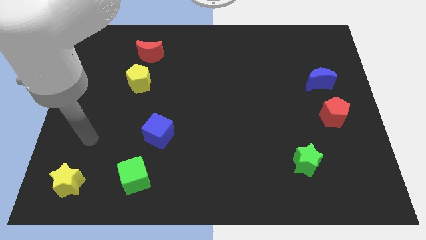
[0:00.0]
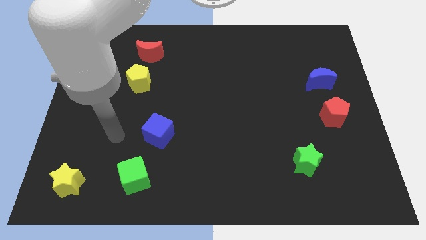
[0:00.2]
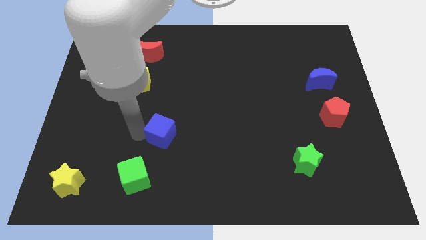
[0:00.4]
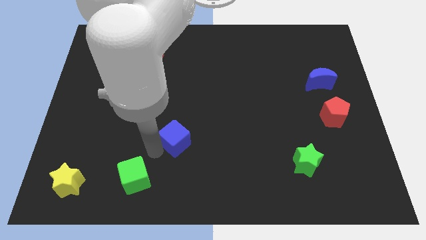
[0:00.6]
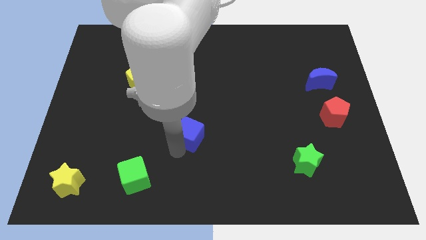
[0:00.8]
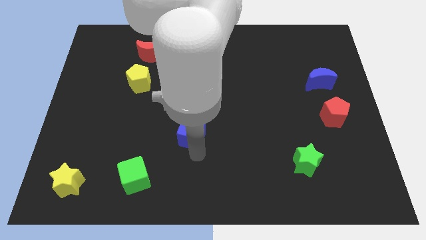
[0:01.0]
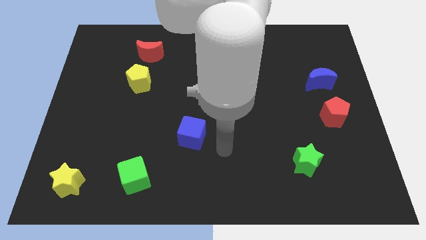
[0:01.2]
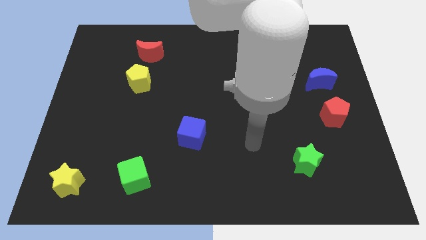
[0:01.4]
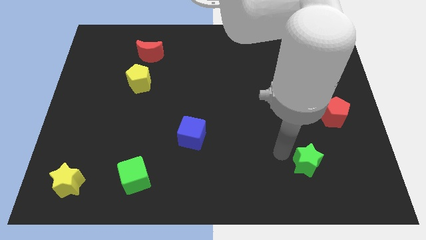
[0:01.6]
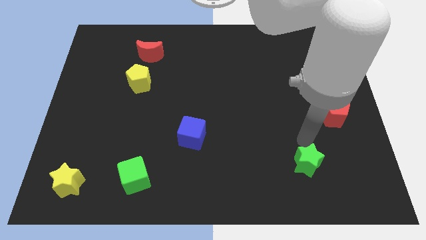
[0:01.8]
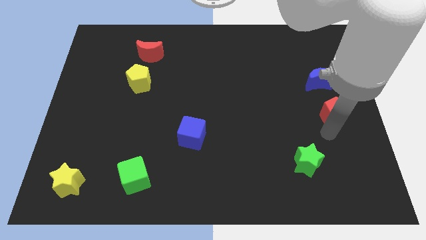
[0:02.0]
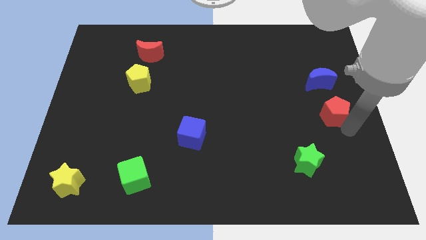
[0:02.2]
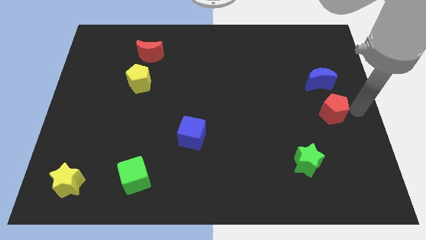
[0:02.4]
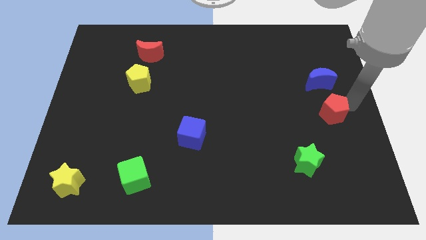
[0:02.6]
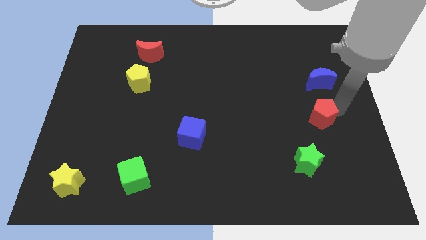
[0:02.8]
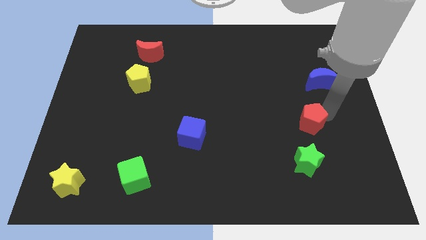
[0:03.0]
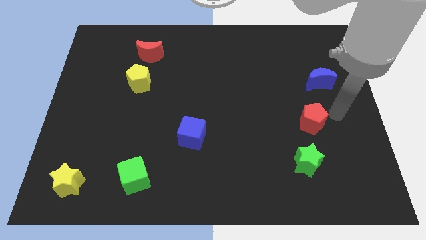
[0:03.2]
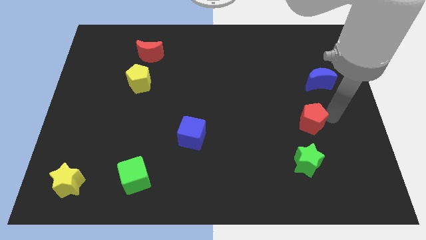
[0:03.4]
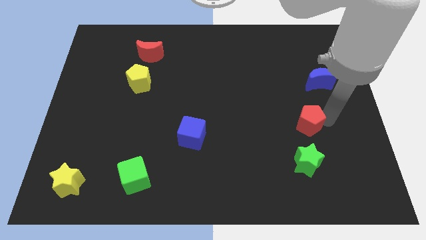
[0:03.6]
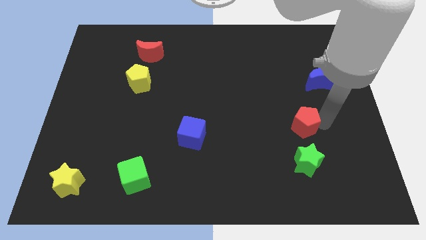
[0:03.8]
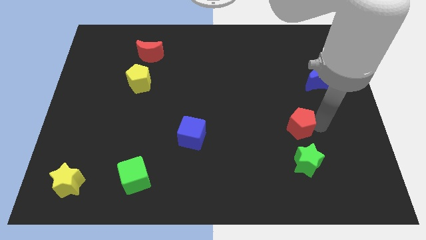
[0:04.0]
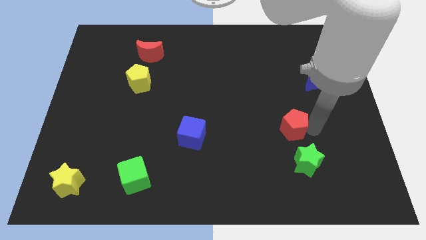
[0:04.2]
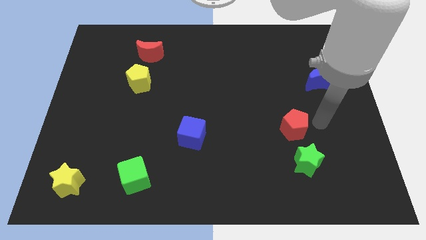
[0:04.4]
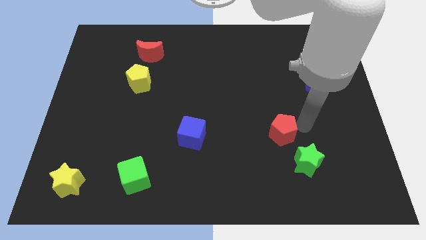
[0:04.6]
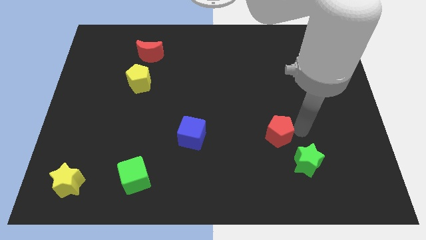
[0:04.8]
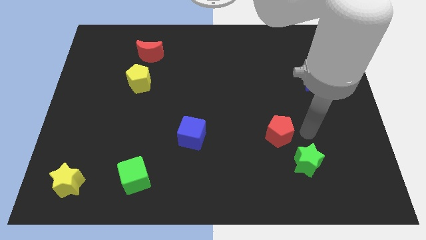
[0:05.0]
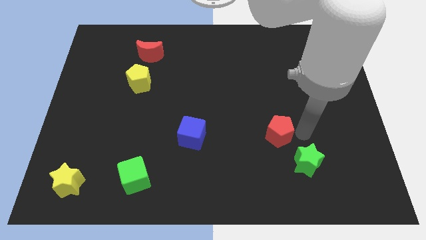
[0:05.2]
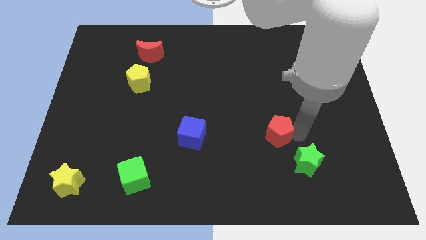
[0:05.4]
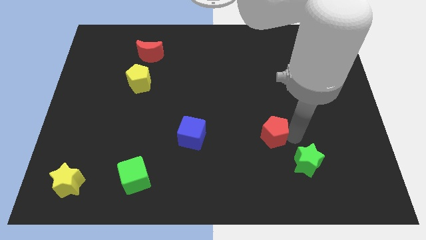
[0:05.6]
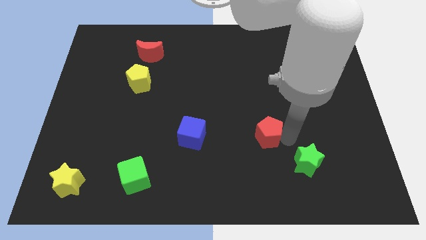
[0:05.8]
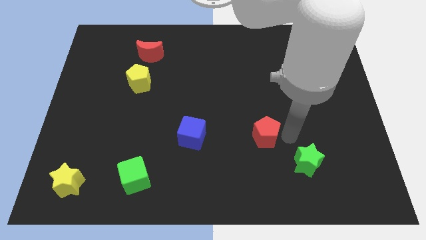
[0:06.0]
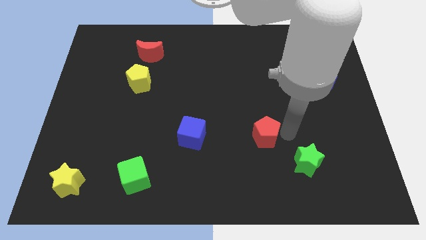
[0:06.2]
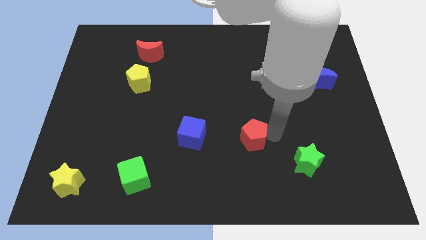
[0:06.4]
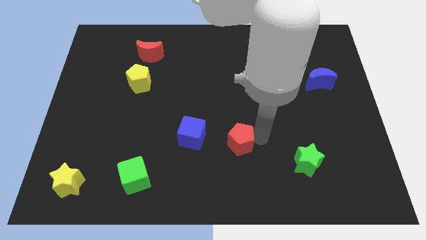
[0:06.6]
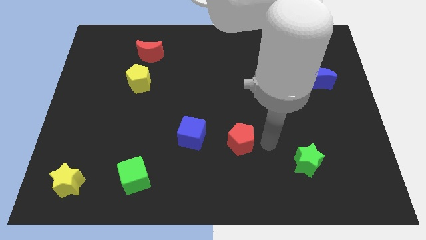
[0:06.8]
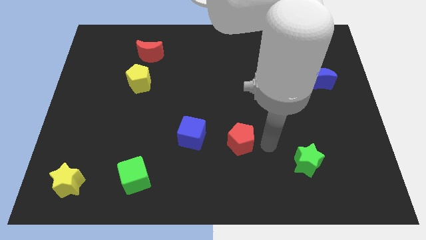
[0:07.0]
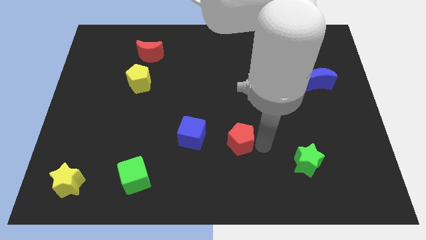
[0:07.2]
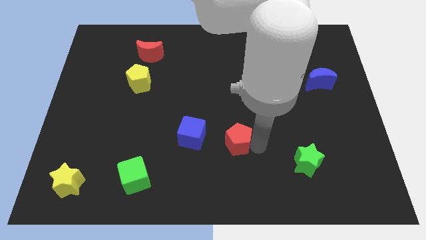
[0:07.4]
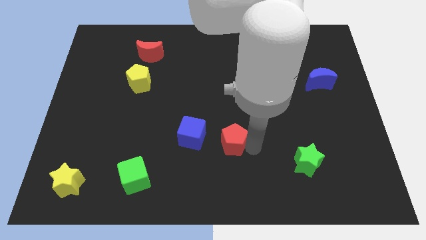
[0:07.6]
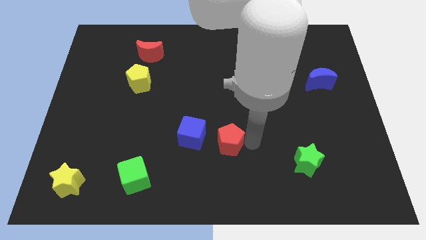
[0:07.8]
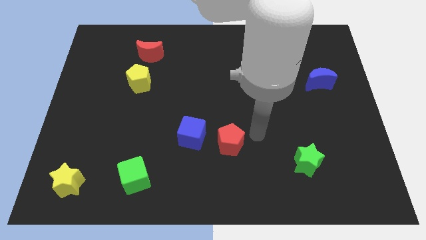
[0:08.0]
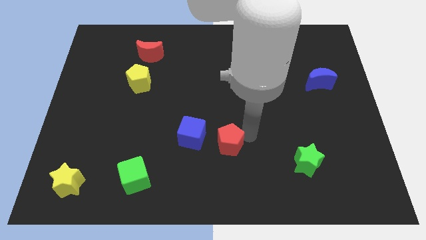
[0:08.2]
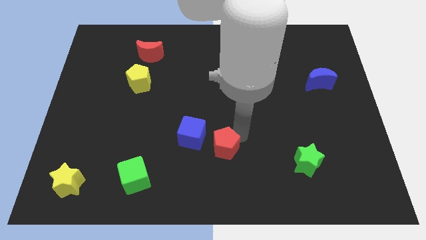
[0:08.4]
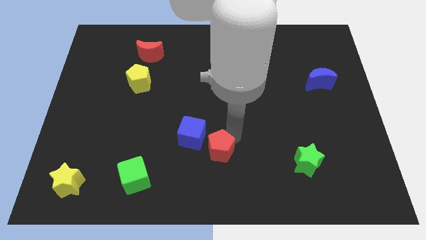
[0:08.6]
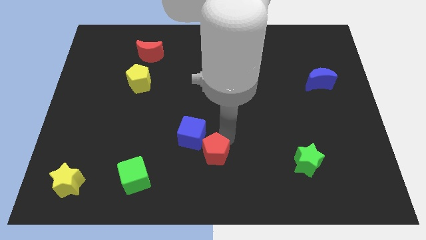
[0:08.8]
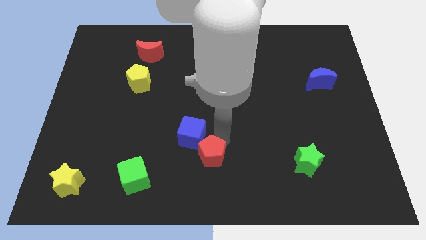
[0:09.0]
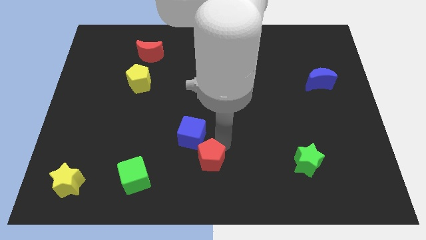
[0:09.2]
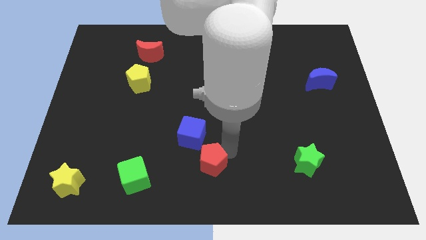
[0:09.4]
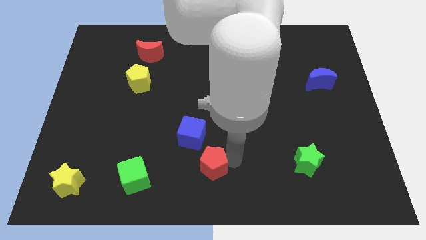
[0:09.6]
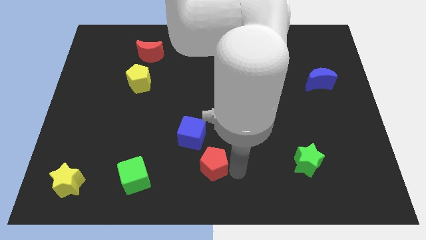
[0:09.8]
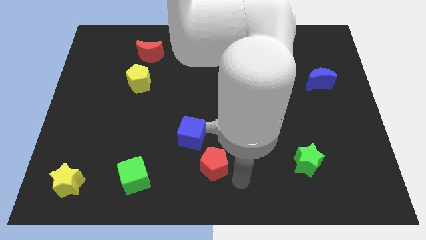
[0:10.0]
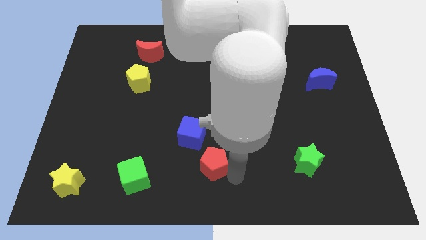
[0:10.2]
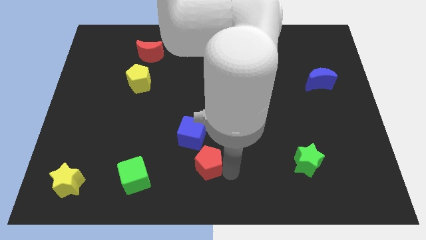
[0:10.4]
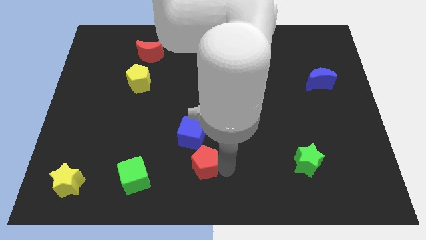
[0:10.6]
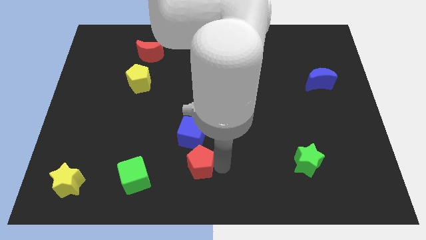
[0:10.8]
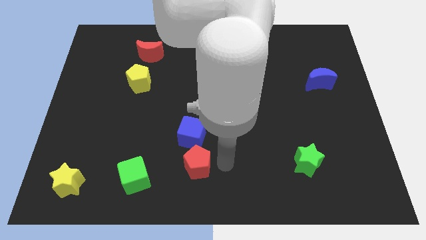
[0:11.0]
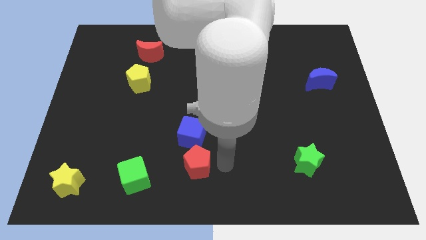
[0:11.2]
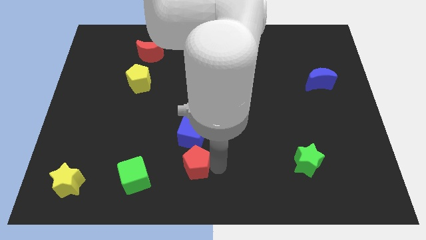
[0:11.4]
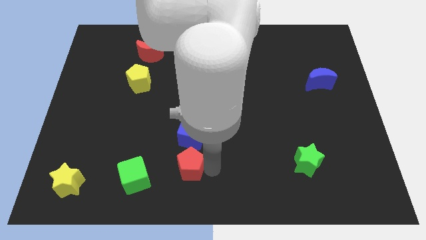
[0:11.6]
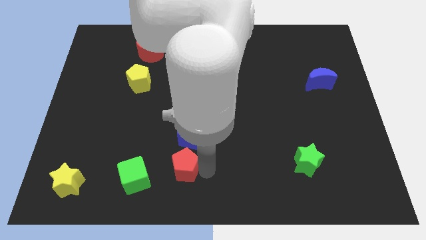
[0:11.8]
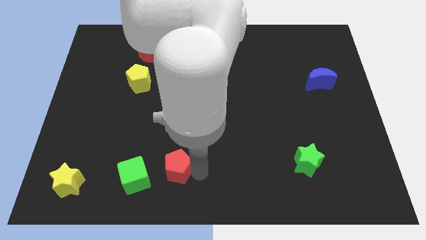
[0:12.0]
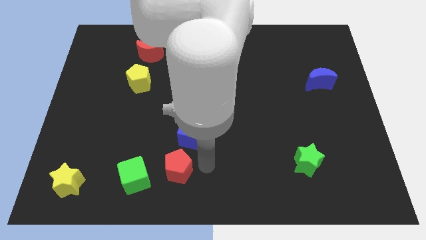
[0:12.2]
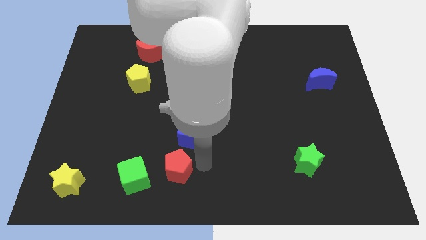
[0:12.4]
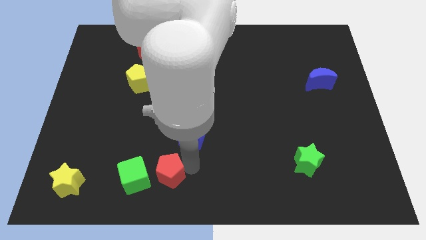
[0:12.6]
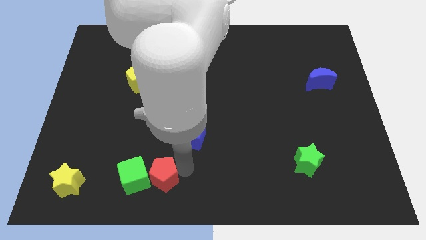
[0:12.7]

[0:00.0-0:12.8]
slide the red pentagon towards the green cube

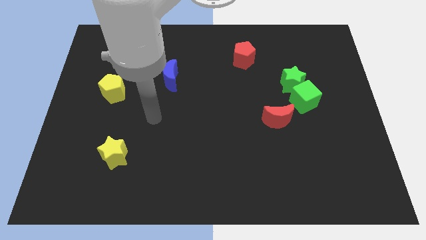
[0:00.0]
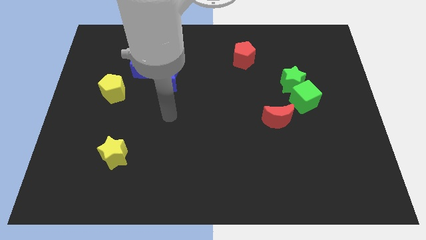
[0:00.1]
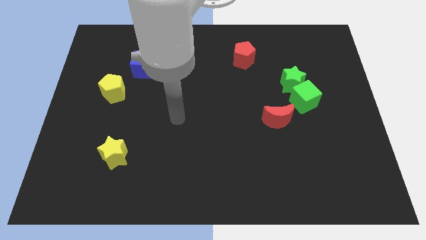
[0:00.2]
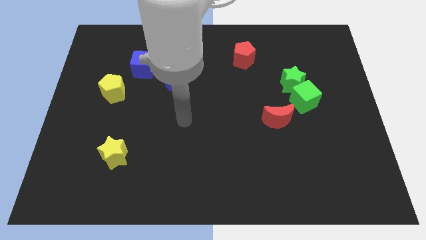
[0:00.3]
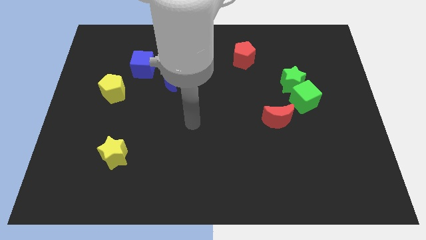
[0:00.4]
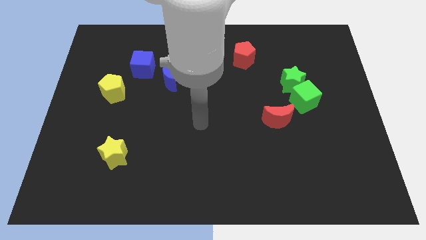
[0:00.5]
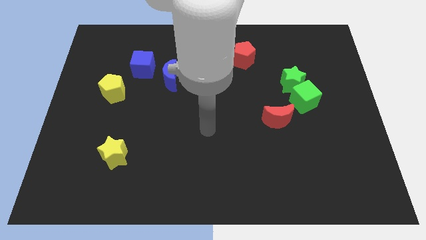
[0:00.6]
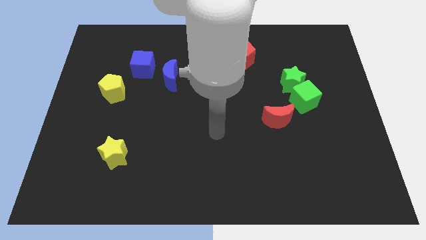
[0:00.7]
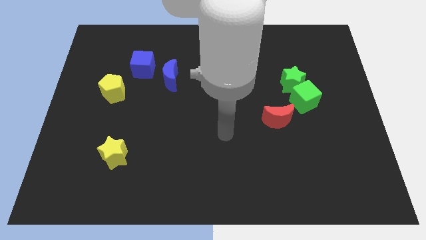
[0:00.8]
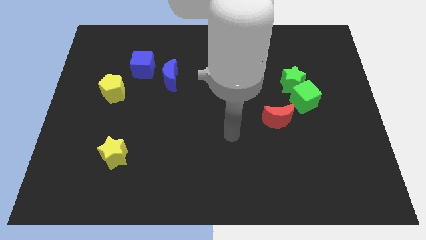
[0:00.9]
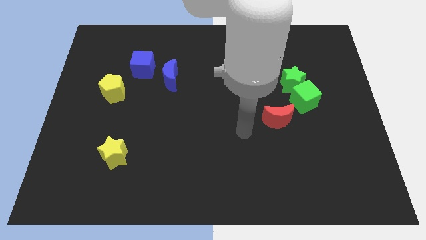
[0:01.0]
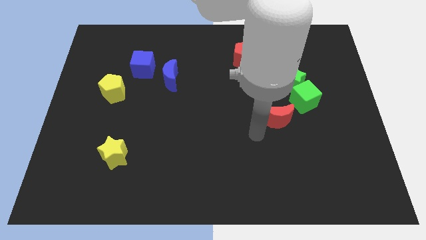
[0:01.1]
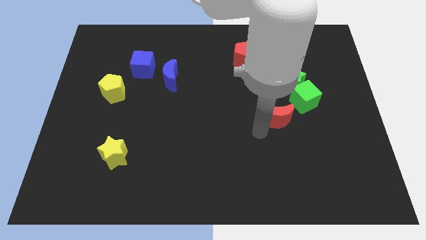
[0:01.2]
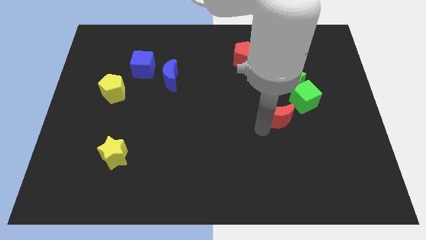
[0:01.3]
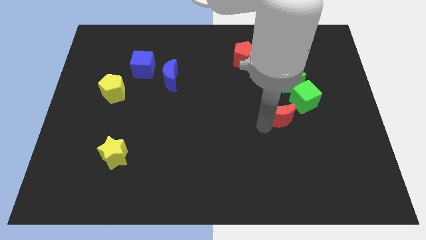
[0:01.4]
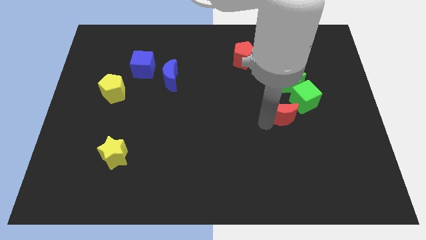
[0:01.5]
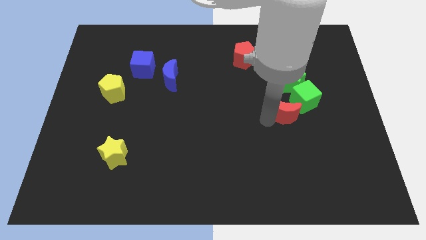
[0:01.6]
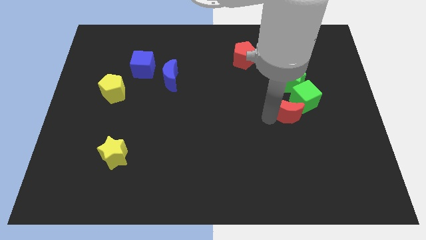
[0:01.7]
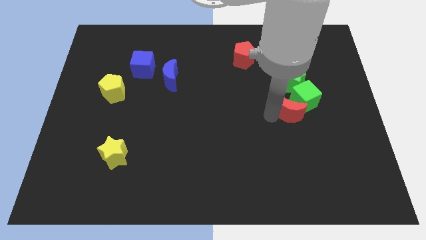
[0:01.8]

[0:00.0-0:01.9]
push the red moon to the green cube
